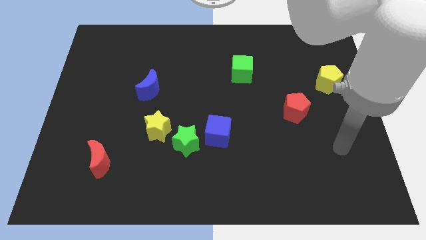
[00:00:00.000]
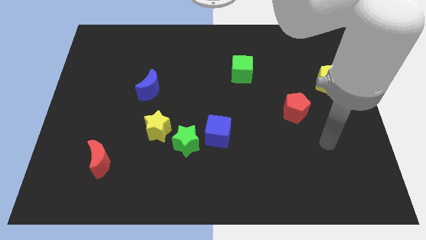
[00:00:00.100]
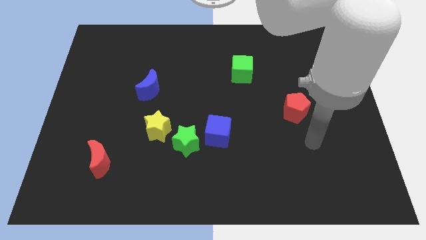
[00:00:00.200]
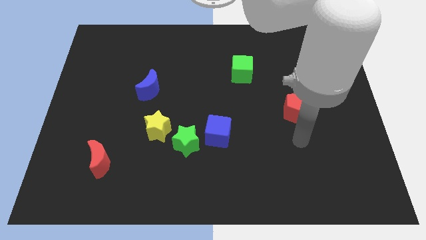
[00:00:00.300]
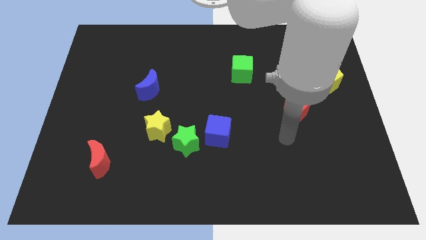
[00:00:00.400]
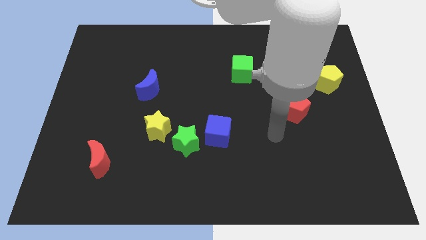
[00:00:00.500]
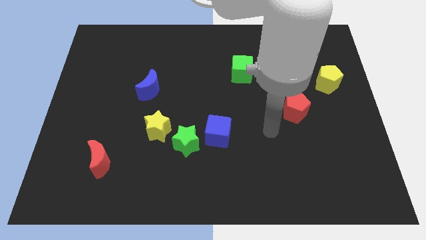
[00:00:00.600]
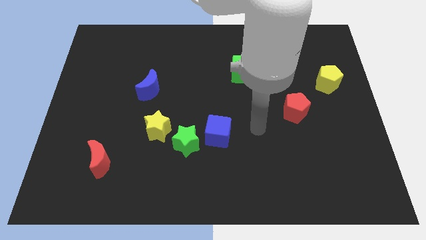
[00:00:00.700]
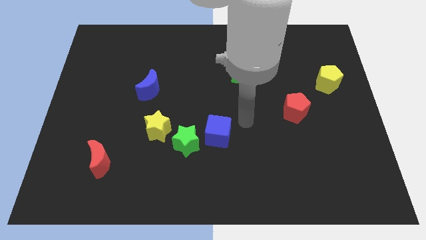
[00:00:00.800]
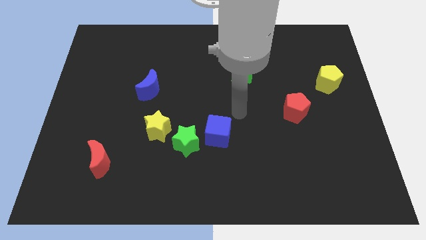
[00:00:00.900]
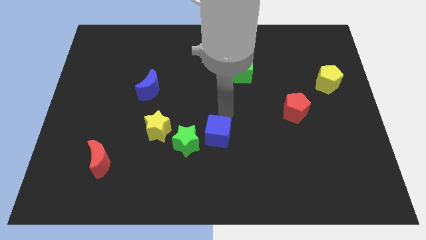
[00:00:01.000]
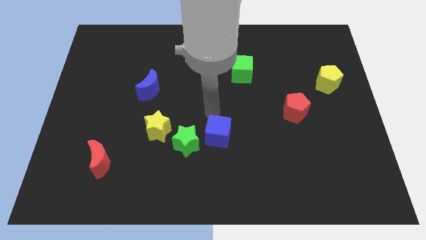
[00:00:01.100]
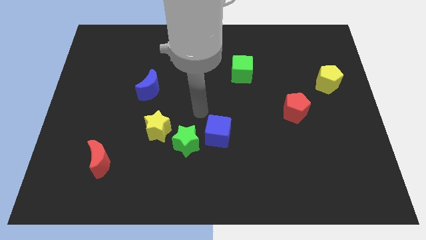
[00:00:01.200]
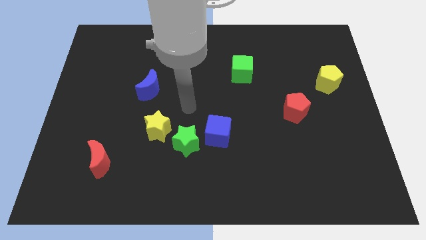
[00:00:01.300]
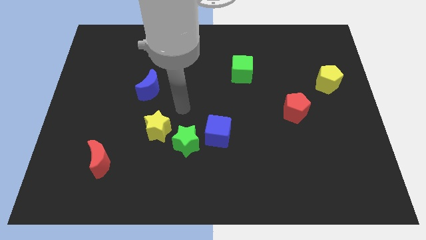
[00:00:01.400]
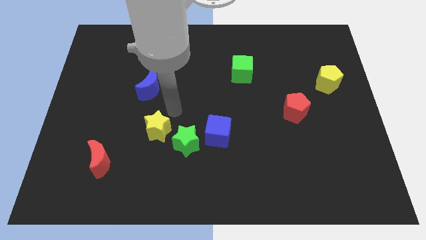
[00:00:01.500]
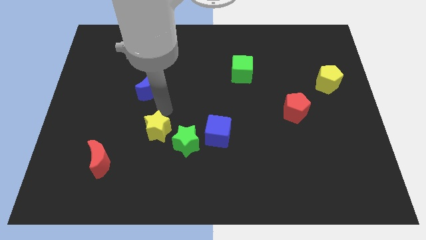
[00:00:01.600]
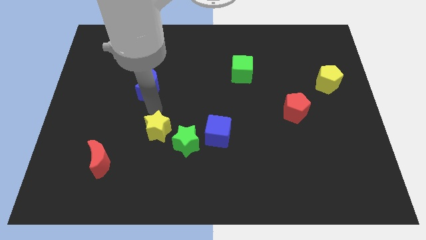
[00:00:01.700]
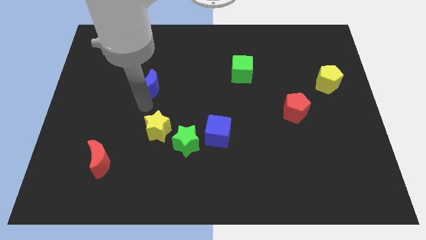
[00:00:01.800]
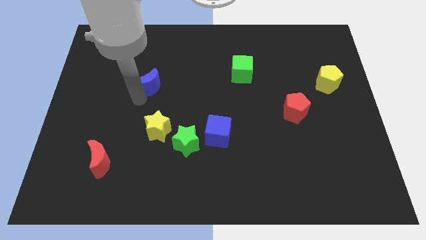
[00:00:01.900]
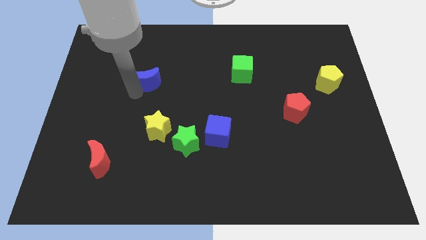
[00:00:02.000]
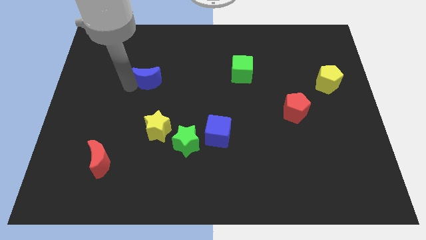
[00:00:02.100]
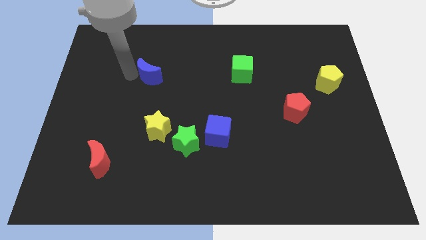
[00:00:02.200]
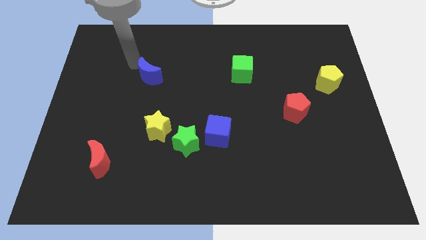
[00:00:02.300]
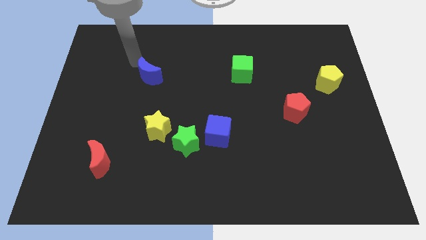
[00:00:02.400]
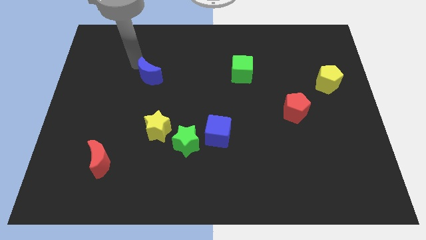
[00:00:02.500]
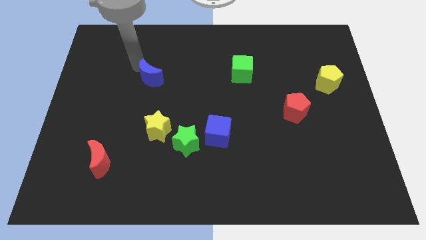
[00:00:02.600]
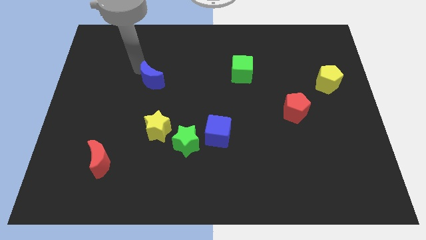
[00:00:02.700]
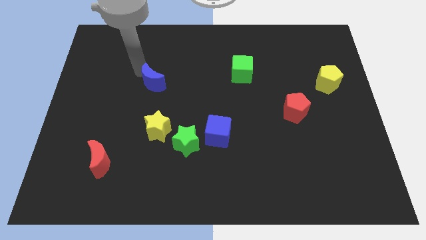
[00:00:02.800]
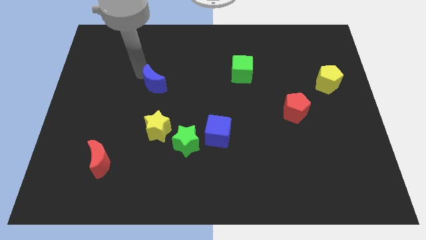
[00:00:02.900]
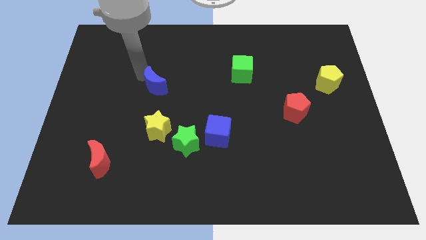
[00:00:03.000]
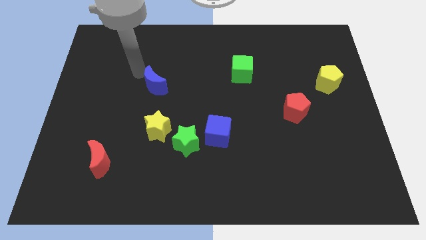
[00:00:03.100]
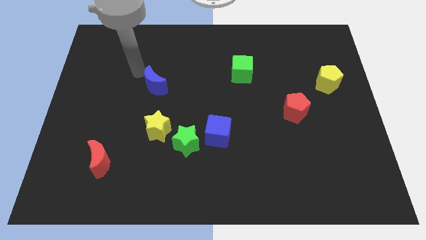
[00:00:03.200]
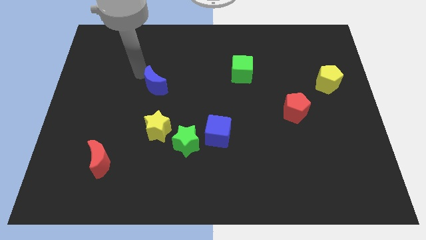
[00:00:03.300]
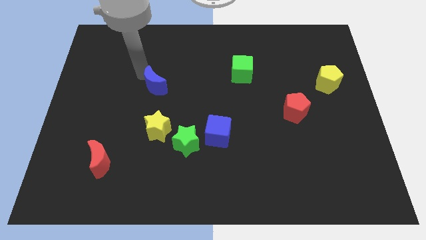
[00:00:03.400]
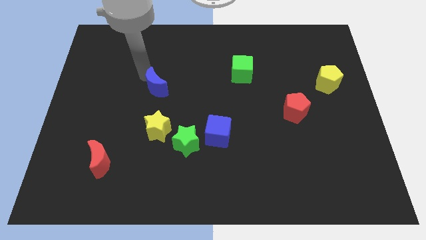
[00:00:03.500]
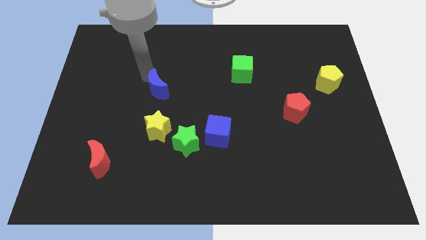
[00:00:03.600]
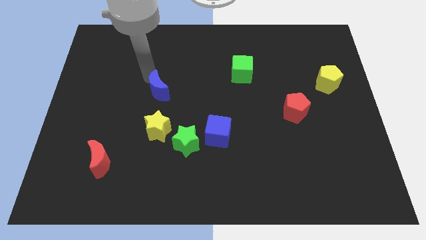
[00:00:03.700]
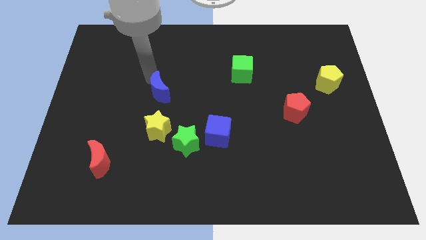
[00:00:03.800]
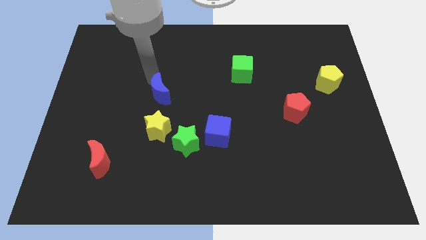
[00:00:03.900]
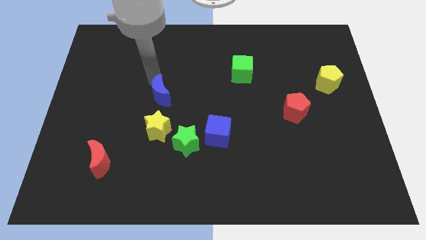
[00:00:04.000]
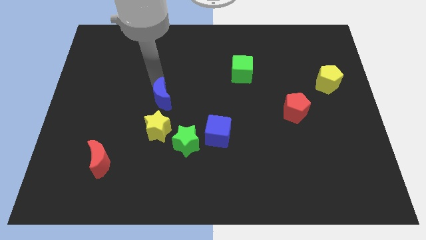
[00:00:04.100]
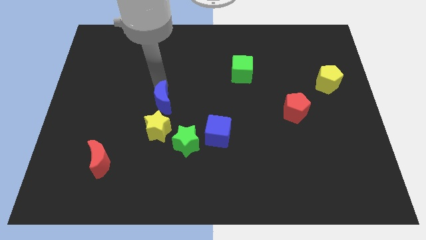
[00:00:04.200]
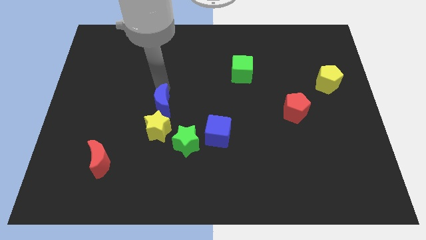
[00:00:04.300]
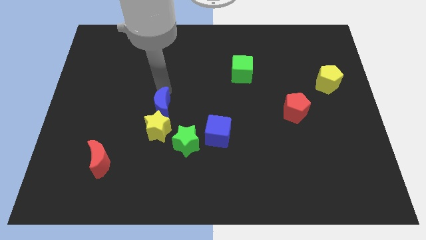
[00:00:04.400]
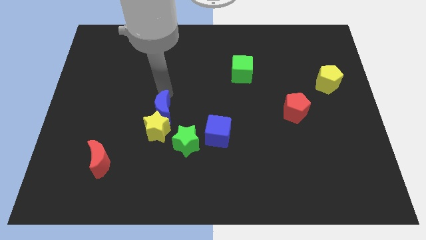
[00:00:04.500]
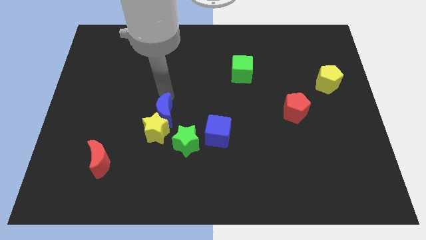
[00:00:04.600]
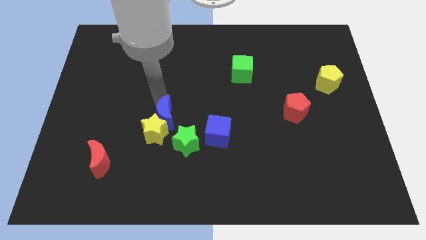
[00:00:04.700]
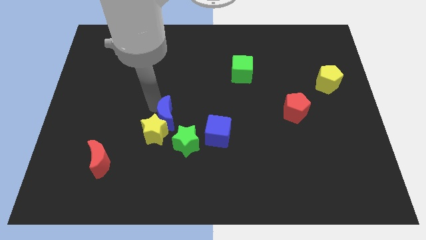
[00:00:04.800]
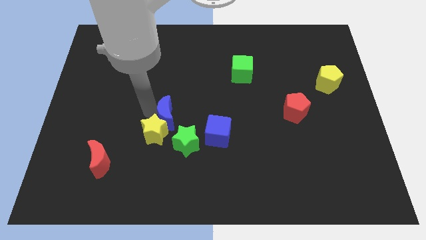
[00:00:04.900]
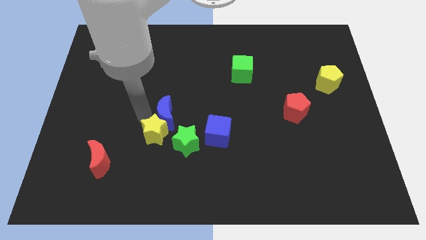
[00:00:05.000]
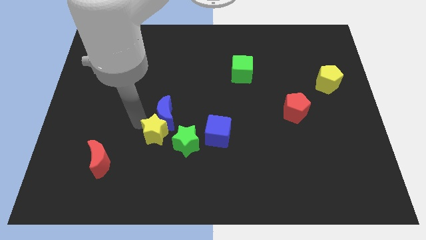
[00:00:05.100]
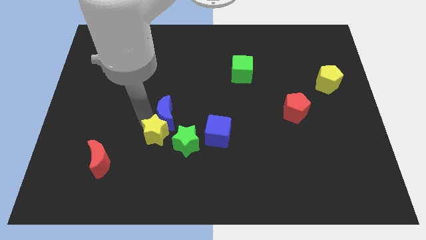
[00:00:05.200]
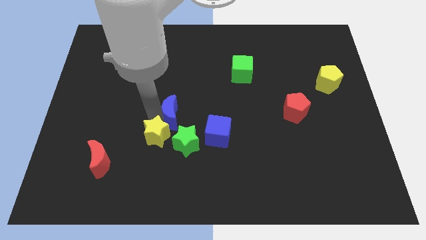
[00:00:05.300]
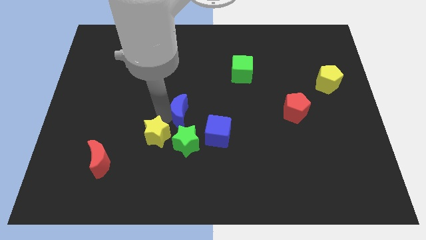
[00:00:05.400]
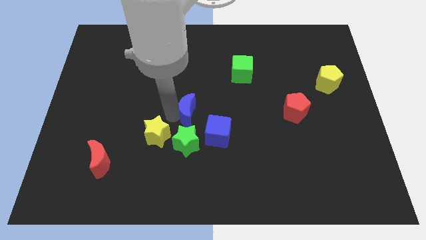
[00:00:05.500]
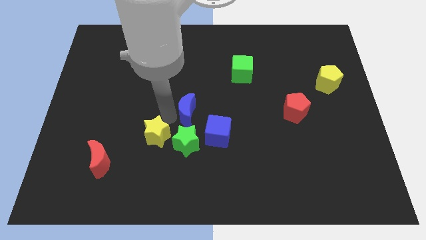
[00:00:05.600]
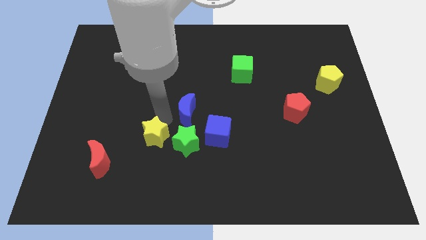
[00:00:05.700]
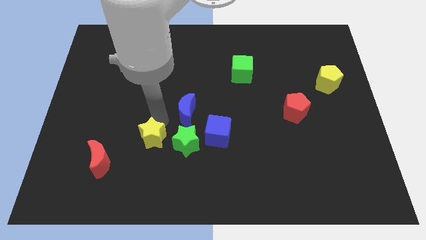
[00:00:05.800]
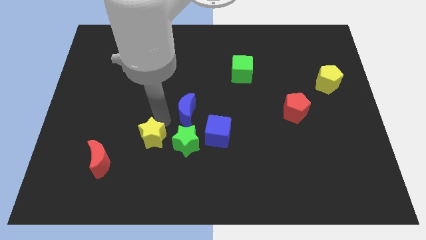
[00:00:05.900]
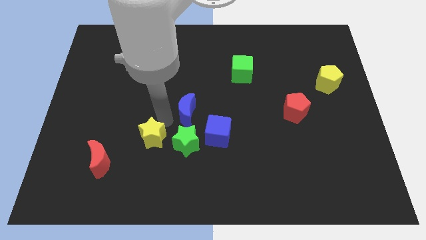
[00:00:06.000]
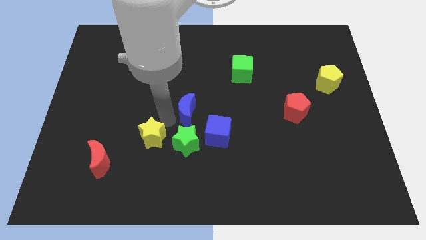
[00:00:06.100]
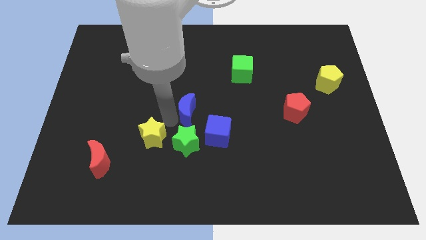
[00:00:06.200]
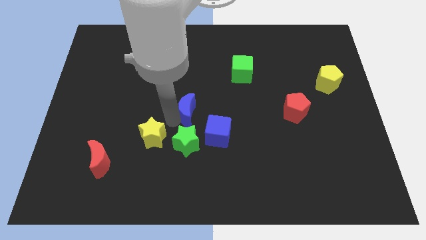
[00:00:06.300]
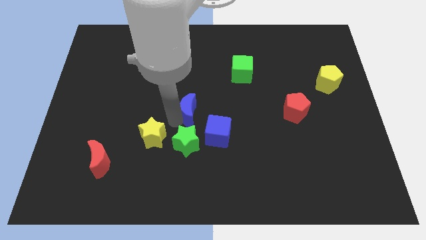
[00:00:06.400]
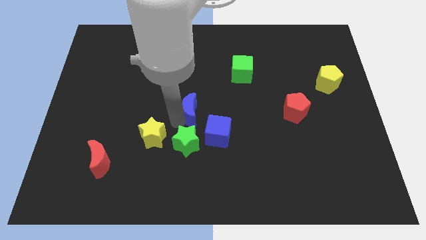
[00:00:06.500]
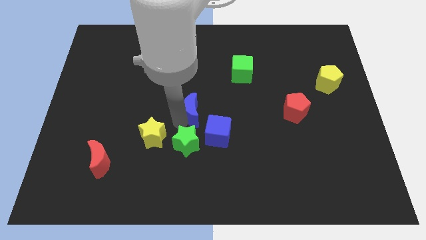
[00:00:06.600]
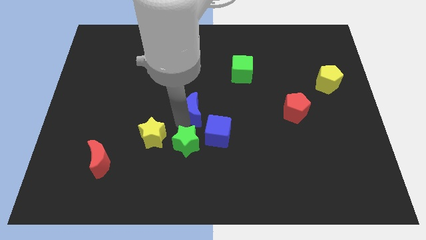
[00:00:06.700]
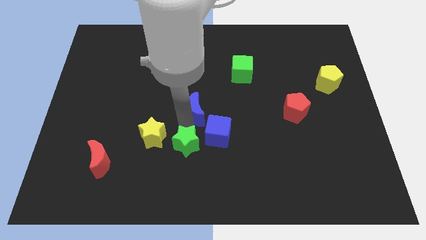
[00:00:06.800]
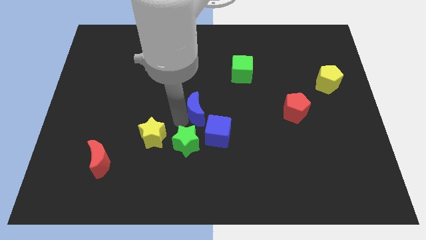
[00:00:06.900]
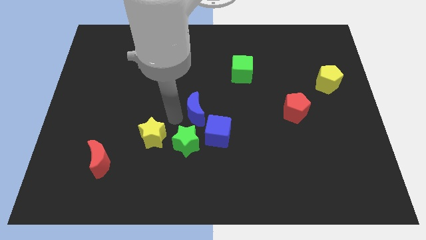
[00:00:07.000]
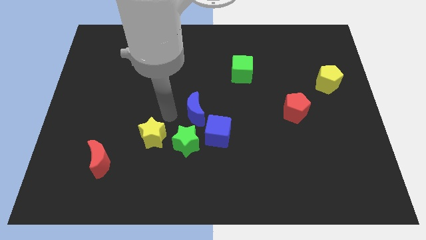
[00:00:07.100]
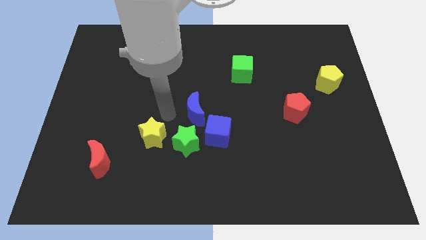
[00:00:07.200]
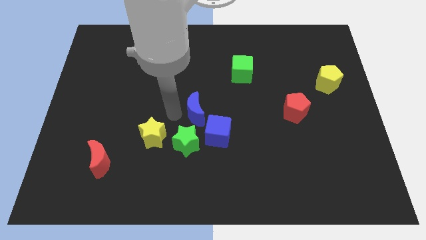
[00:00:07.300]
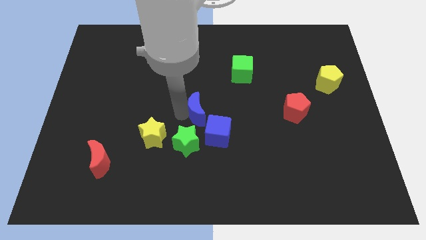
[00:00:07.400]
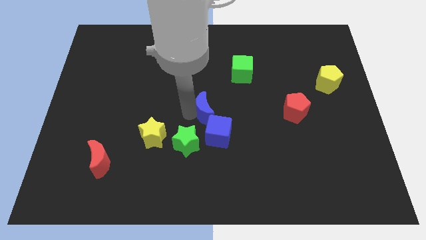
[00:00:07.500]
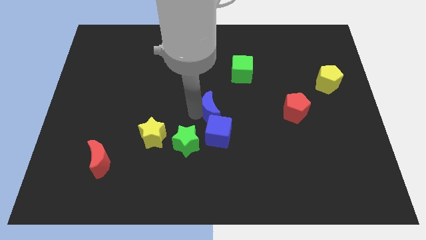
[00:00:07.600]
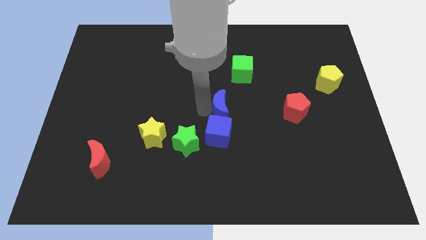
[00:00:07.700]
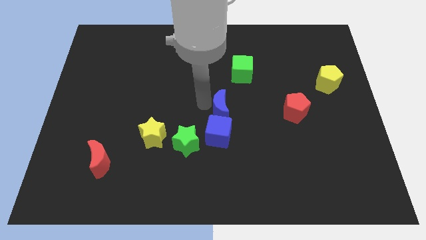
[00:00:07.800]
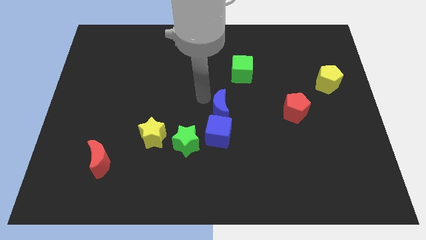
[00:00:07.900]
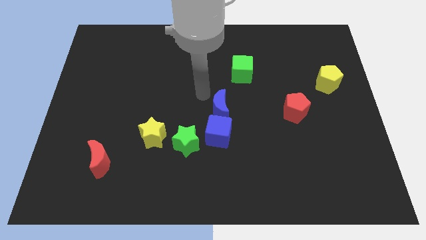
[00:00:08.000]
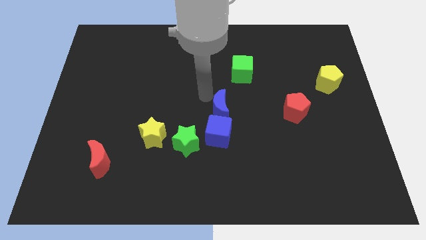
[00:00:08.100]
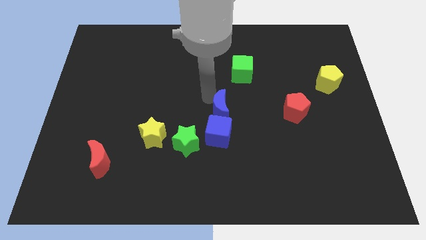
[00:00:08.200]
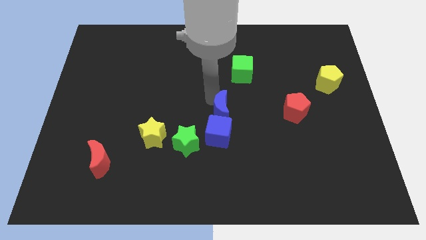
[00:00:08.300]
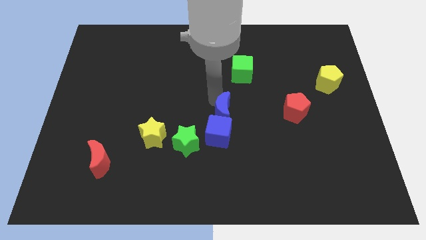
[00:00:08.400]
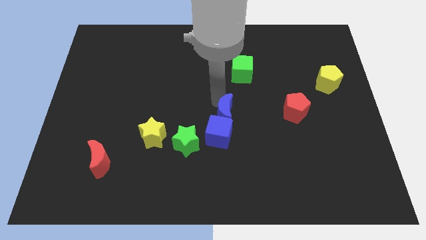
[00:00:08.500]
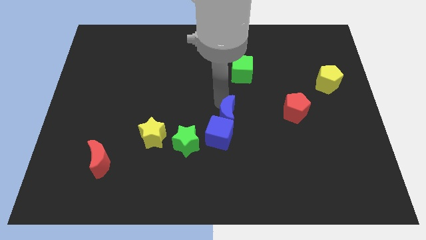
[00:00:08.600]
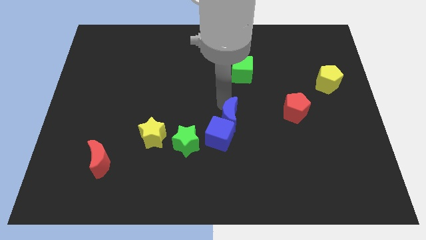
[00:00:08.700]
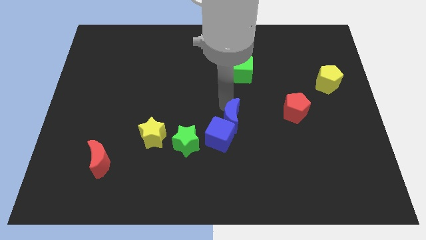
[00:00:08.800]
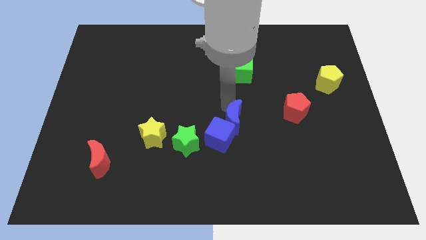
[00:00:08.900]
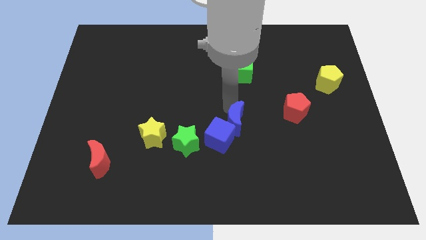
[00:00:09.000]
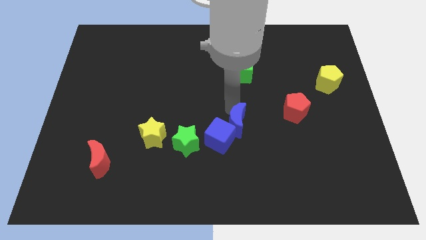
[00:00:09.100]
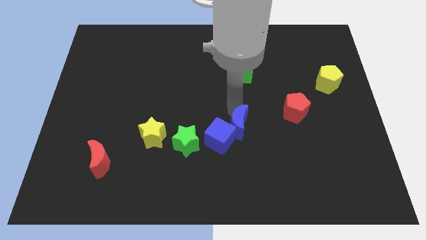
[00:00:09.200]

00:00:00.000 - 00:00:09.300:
push the blue moon down and to the right
